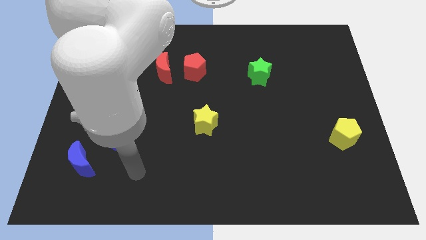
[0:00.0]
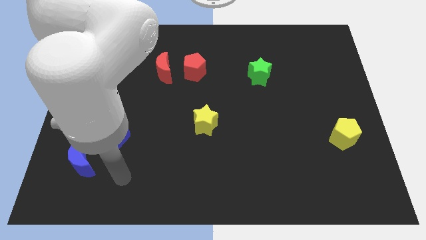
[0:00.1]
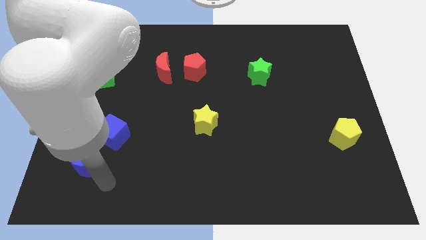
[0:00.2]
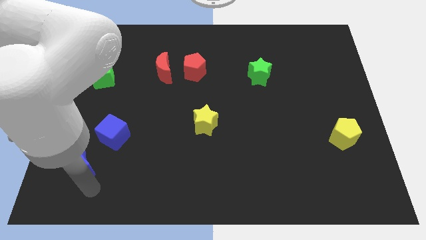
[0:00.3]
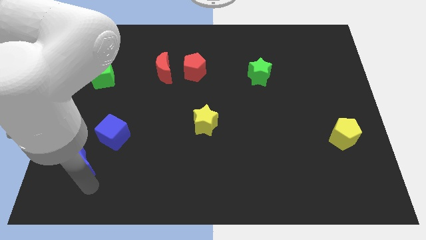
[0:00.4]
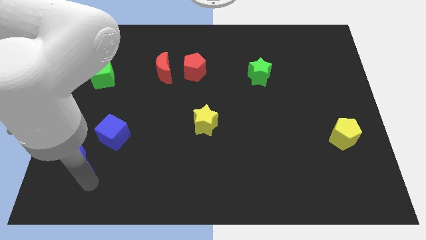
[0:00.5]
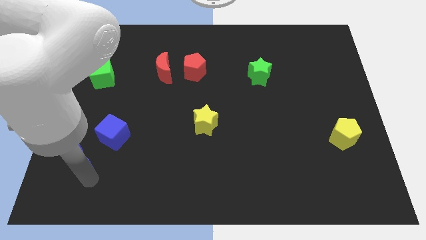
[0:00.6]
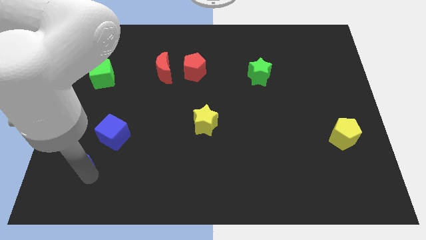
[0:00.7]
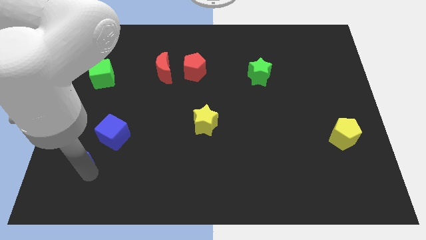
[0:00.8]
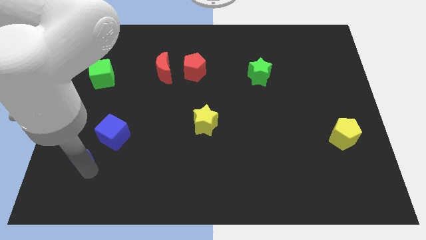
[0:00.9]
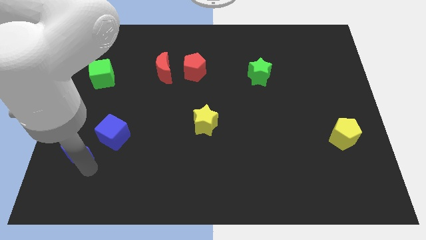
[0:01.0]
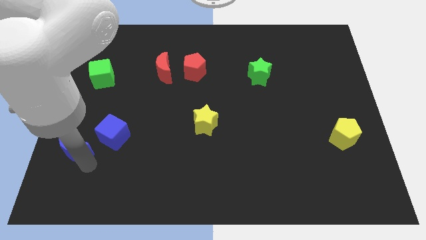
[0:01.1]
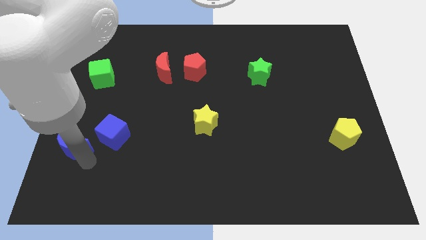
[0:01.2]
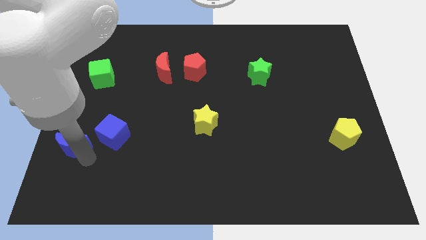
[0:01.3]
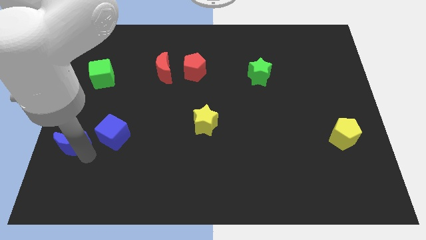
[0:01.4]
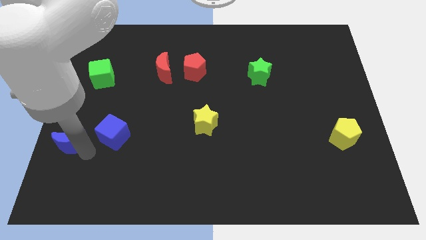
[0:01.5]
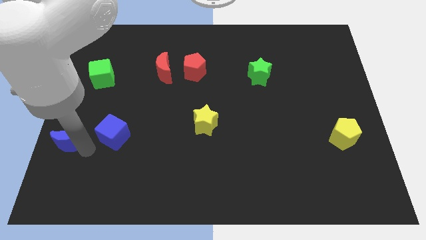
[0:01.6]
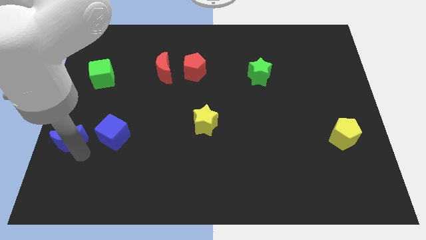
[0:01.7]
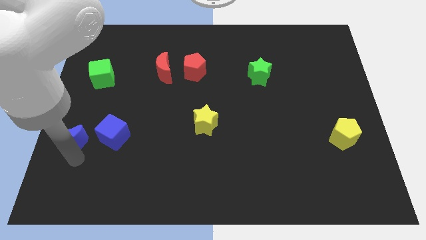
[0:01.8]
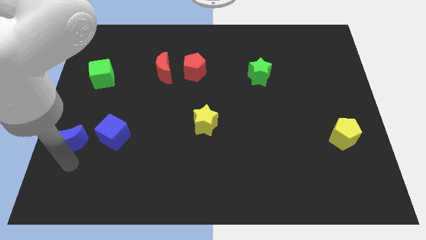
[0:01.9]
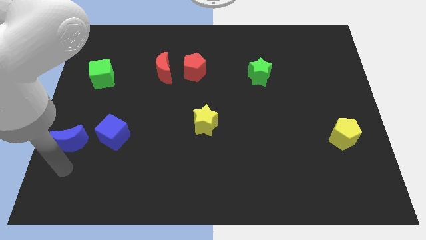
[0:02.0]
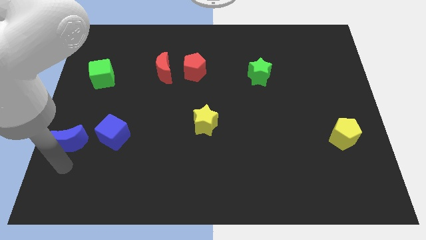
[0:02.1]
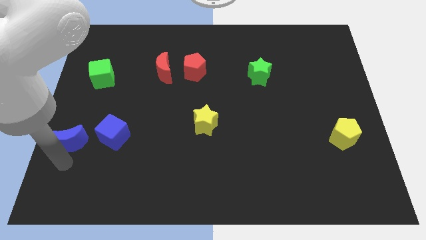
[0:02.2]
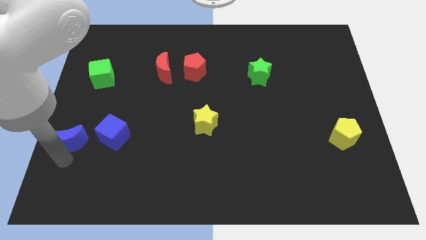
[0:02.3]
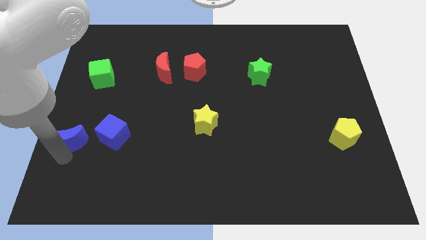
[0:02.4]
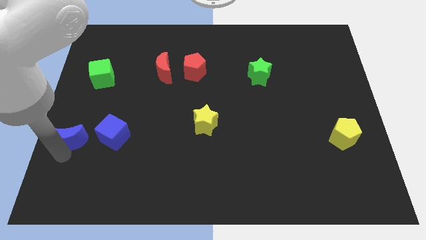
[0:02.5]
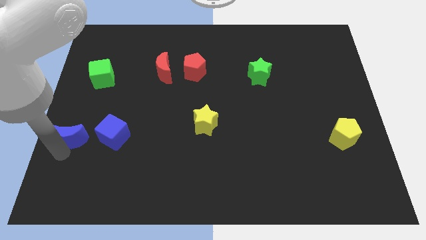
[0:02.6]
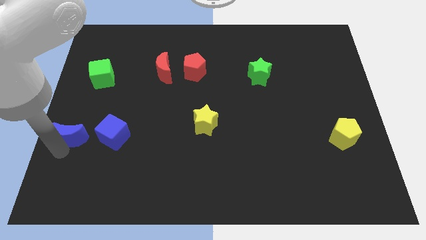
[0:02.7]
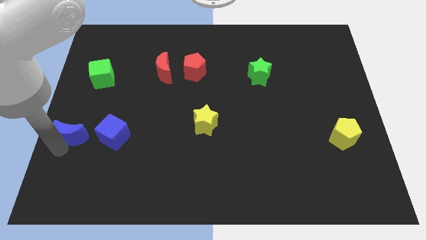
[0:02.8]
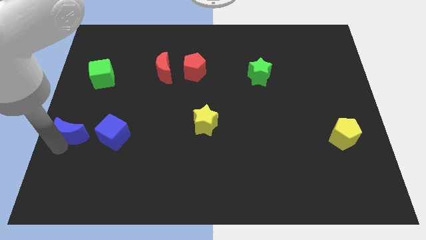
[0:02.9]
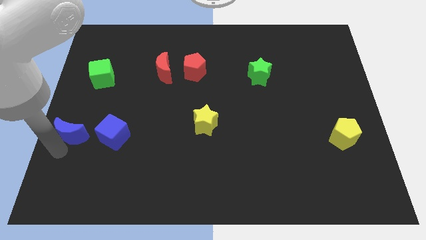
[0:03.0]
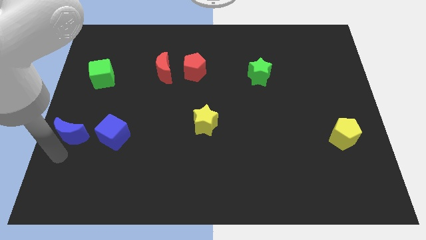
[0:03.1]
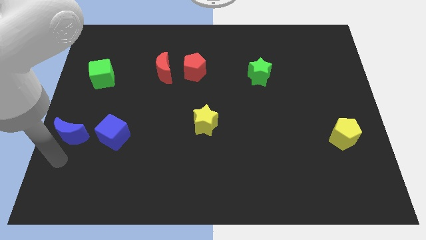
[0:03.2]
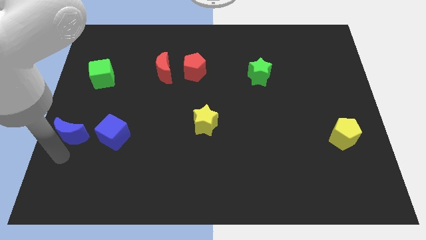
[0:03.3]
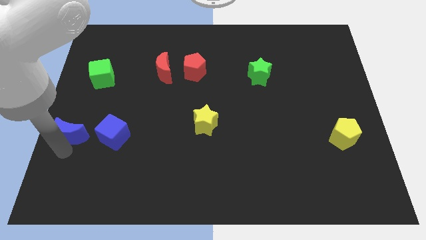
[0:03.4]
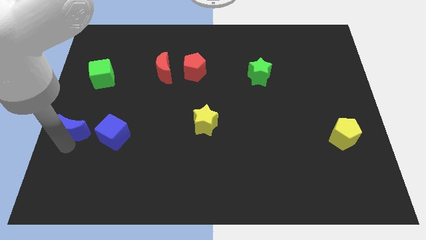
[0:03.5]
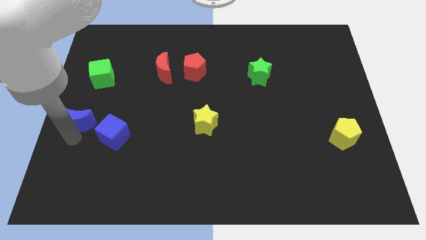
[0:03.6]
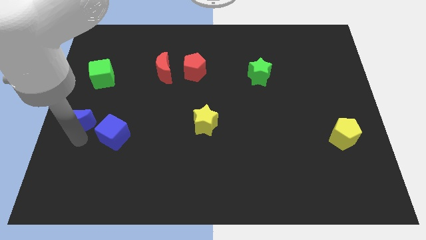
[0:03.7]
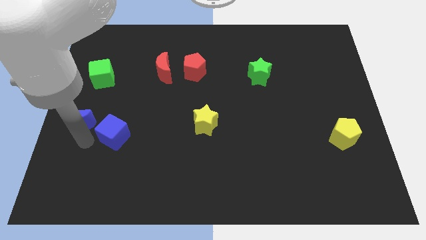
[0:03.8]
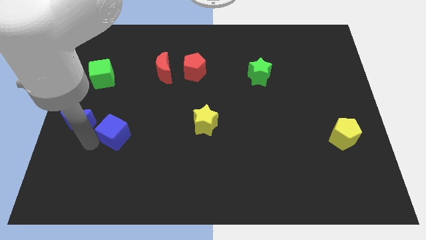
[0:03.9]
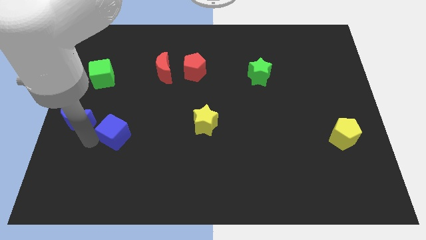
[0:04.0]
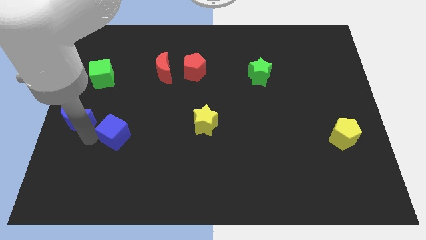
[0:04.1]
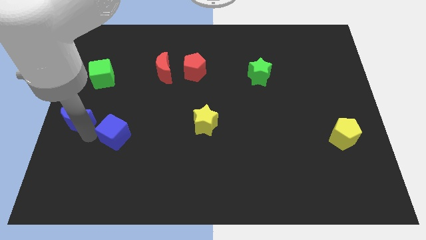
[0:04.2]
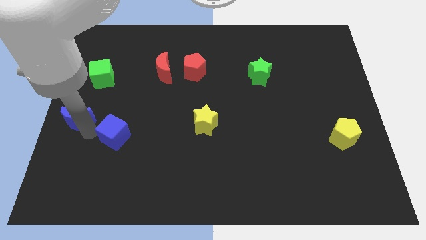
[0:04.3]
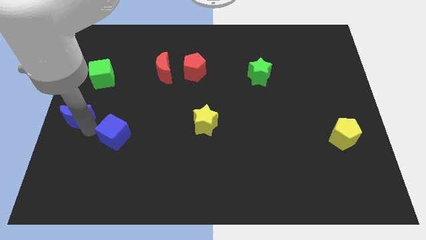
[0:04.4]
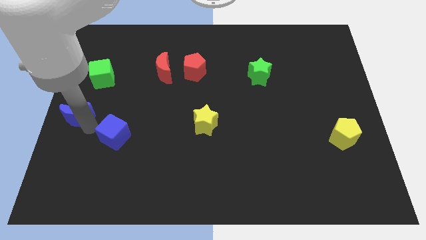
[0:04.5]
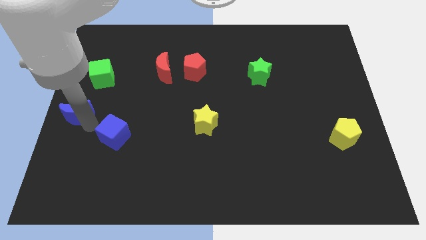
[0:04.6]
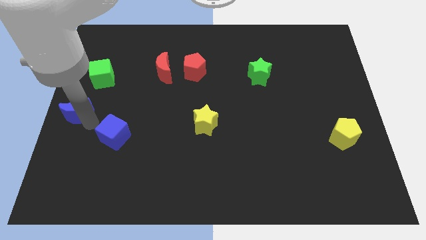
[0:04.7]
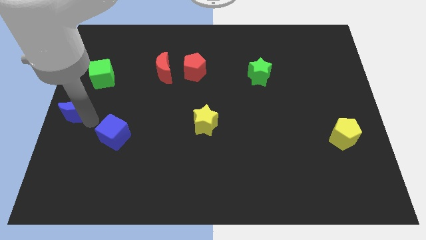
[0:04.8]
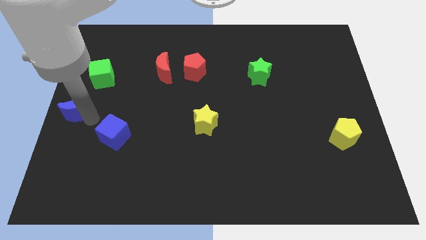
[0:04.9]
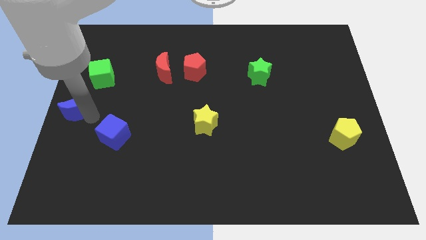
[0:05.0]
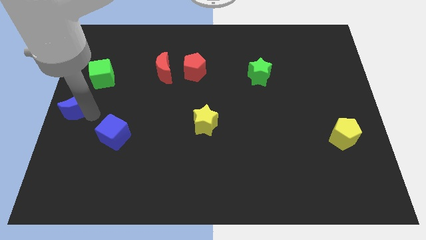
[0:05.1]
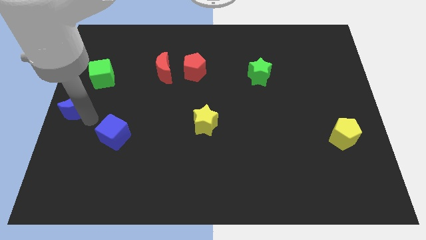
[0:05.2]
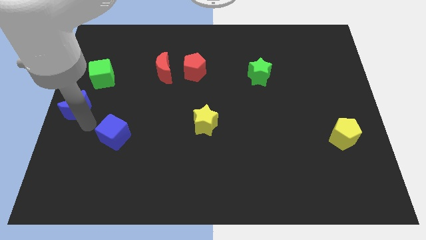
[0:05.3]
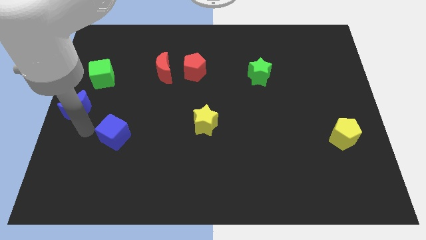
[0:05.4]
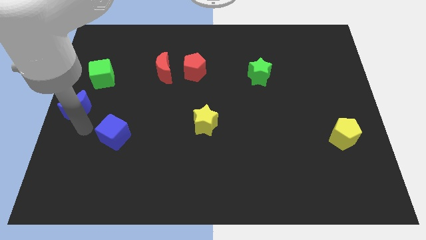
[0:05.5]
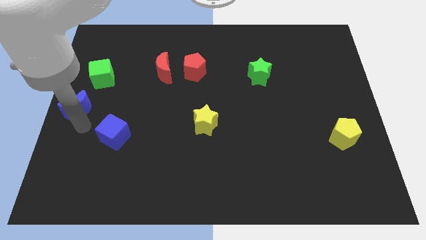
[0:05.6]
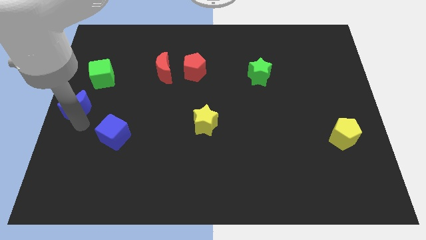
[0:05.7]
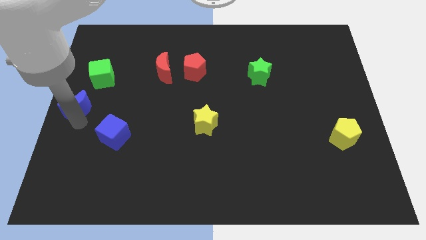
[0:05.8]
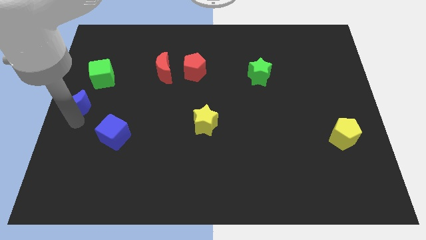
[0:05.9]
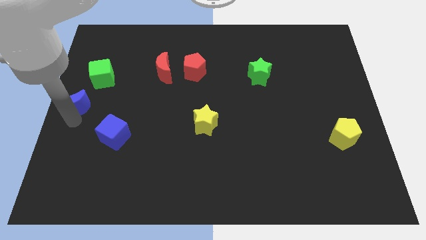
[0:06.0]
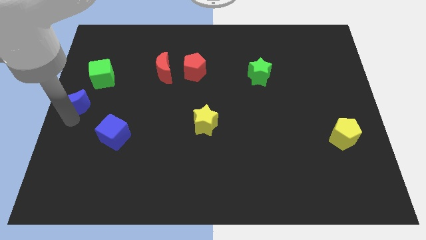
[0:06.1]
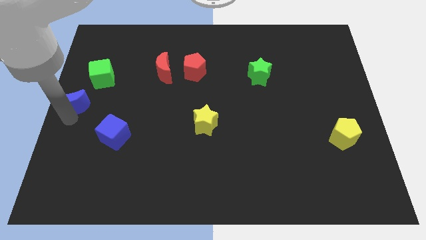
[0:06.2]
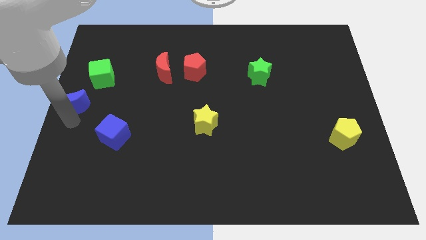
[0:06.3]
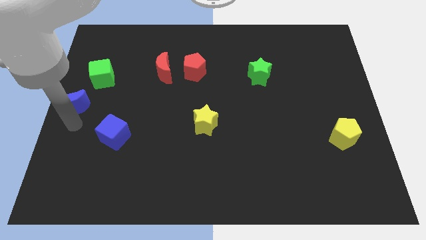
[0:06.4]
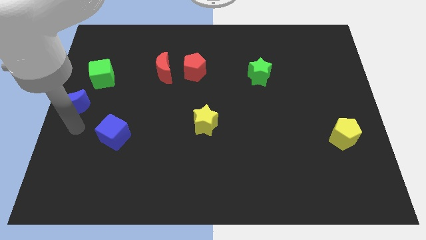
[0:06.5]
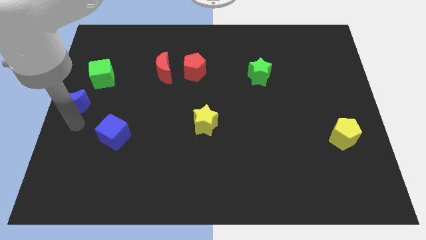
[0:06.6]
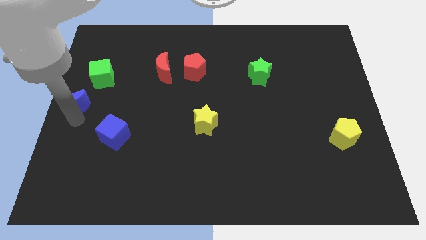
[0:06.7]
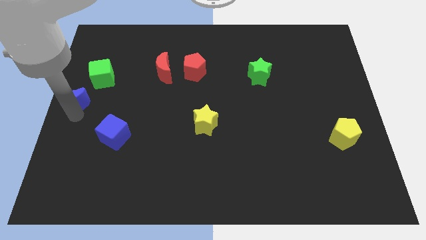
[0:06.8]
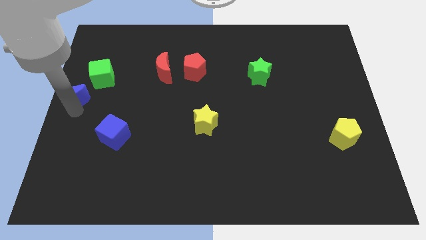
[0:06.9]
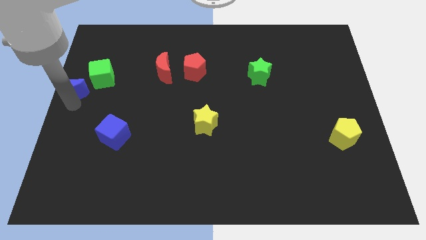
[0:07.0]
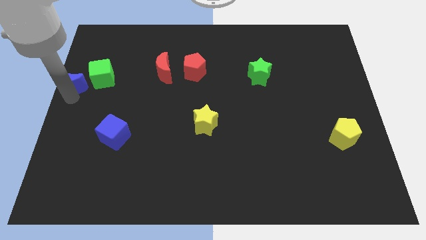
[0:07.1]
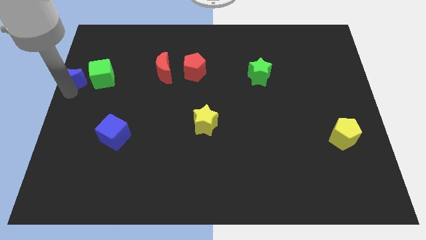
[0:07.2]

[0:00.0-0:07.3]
move the blue moon up

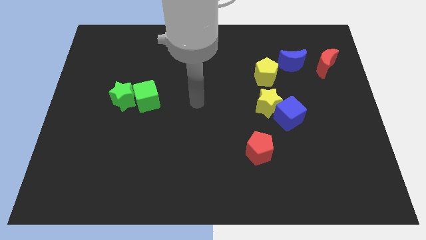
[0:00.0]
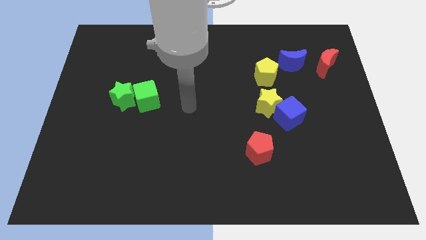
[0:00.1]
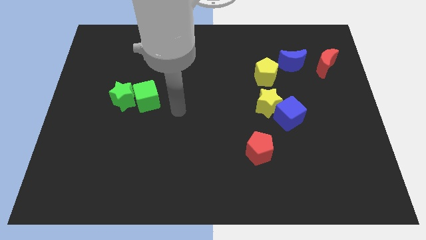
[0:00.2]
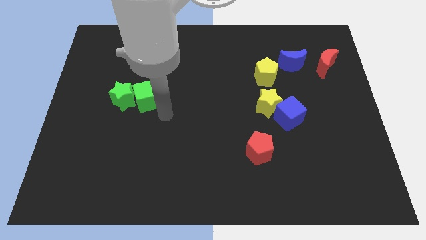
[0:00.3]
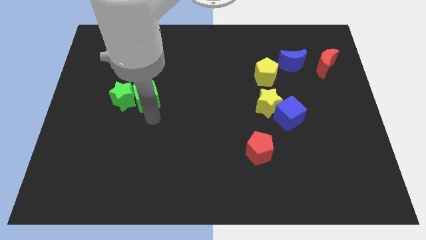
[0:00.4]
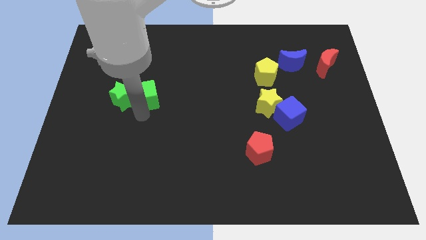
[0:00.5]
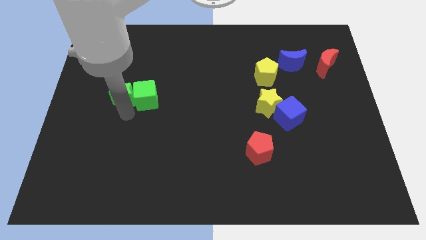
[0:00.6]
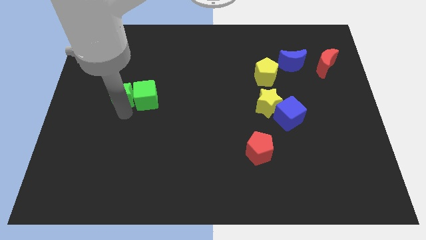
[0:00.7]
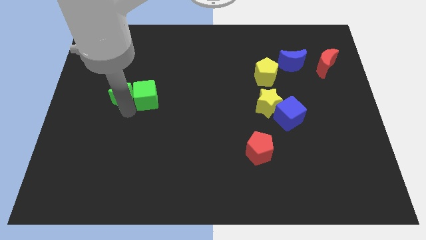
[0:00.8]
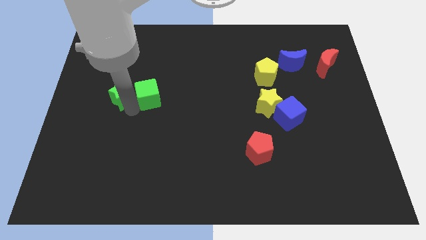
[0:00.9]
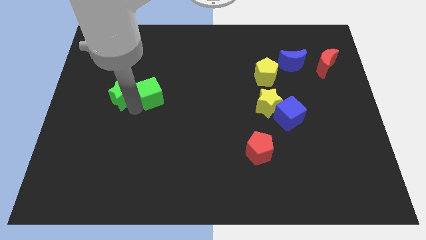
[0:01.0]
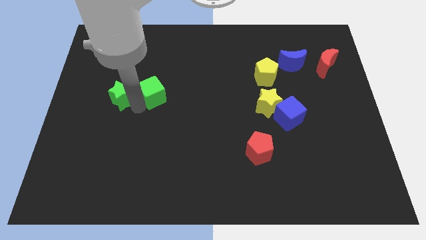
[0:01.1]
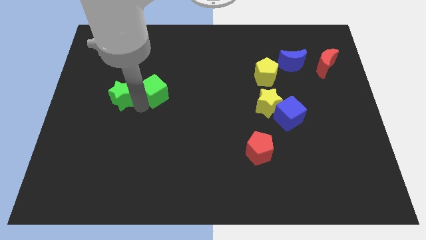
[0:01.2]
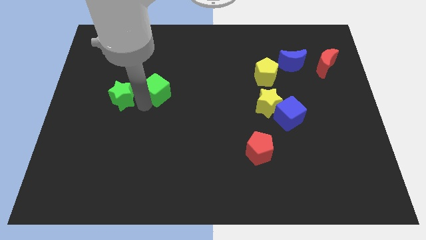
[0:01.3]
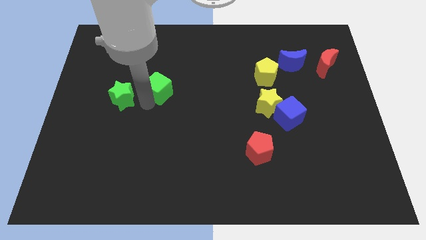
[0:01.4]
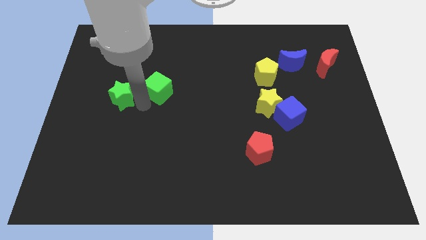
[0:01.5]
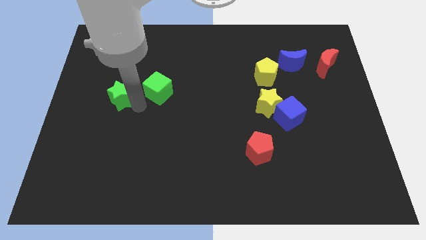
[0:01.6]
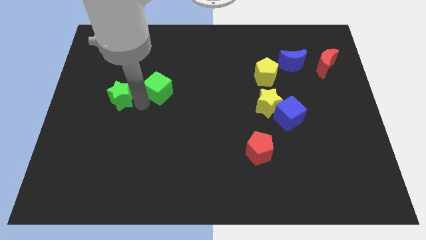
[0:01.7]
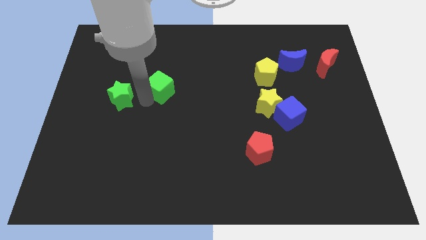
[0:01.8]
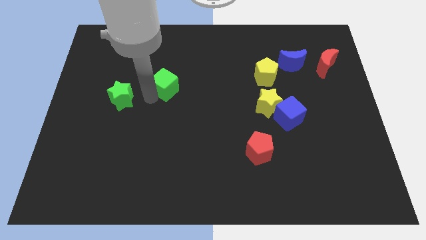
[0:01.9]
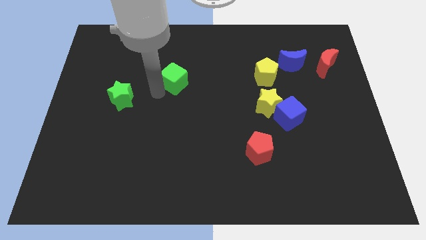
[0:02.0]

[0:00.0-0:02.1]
slide the green cube up and right a little bit
